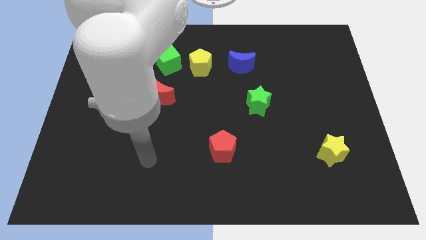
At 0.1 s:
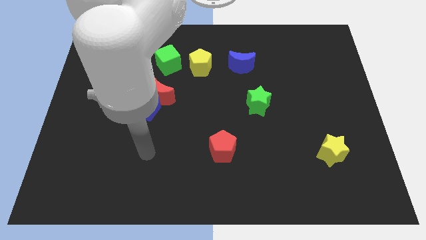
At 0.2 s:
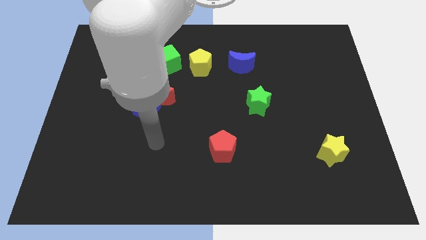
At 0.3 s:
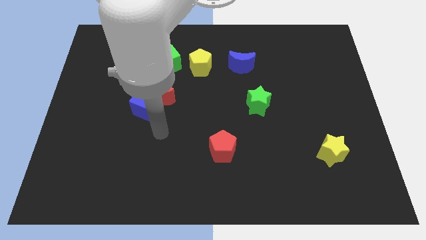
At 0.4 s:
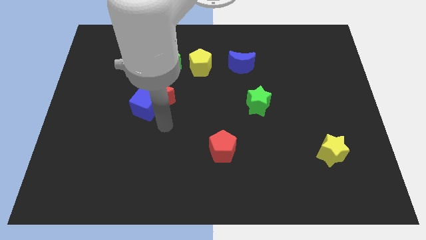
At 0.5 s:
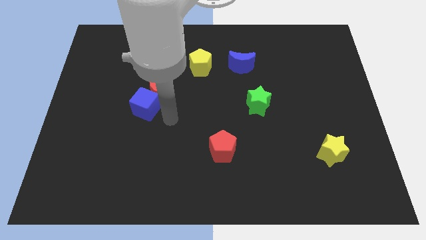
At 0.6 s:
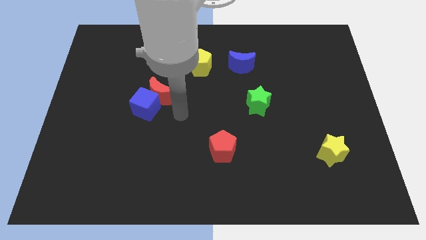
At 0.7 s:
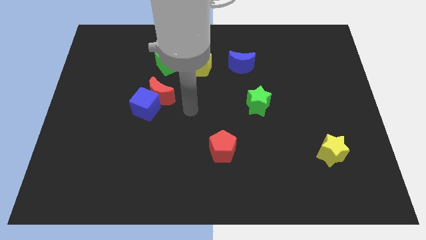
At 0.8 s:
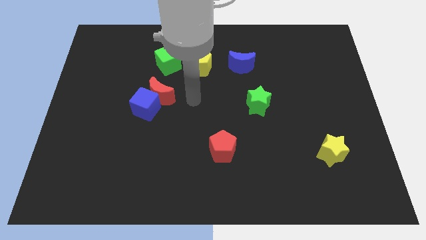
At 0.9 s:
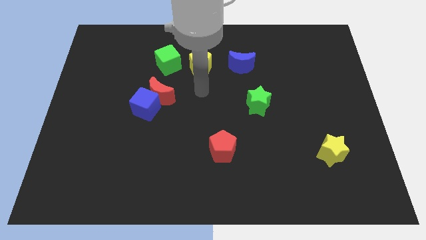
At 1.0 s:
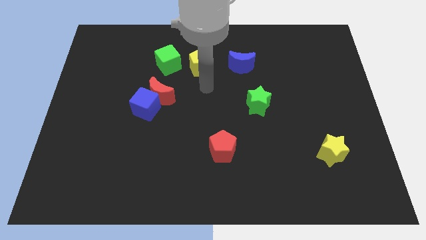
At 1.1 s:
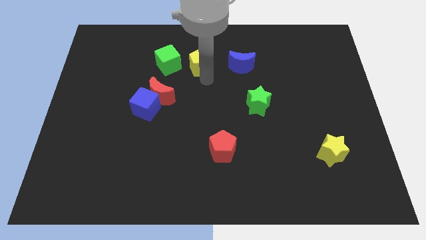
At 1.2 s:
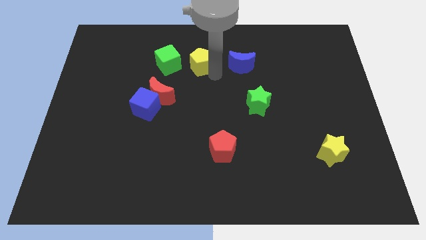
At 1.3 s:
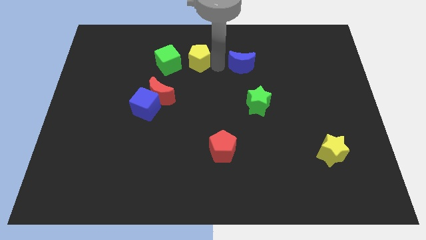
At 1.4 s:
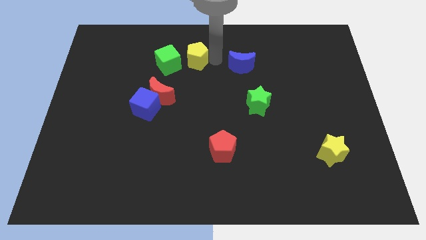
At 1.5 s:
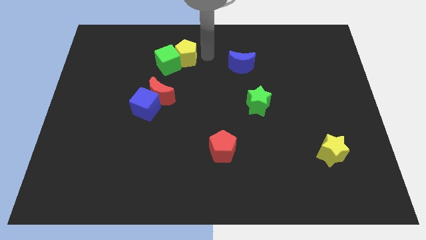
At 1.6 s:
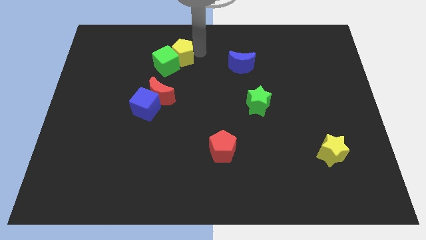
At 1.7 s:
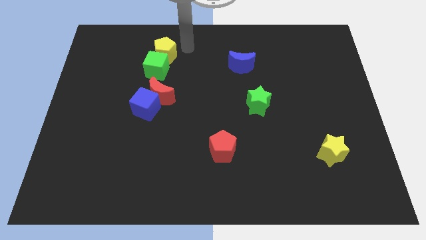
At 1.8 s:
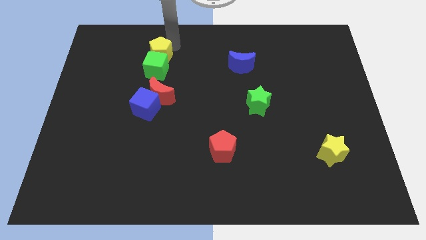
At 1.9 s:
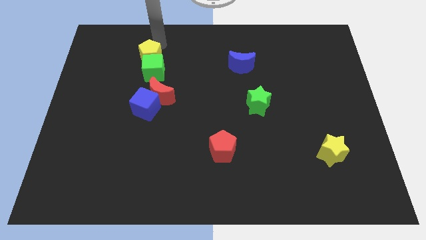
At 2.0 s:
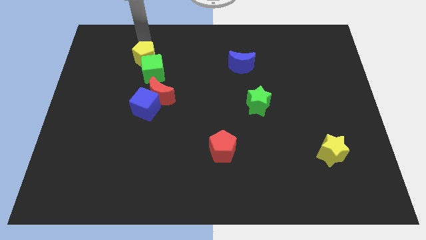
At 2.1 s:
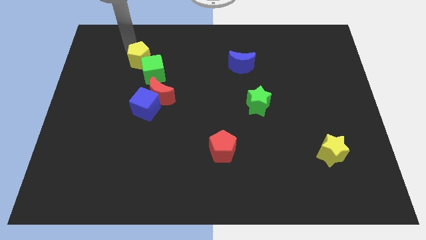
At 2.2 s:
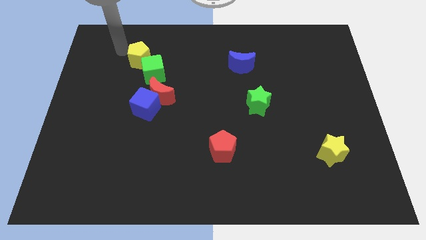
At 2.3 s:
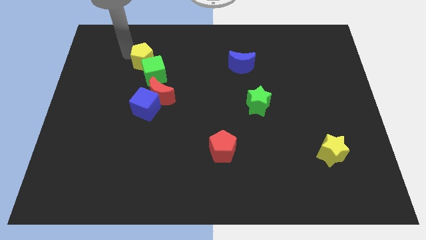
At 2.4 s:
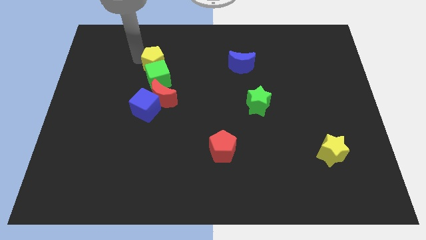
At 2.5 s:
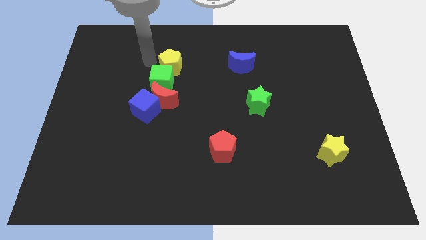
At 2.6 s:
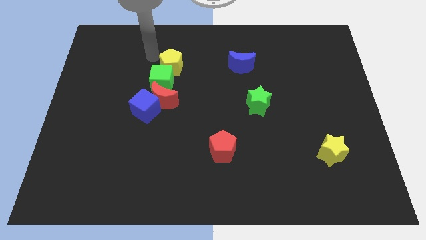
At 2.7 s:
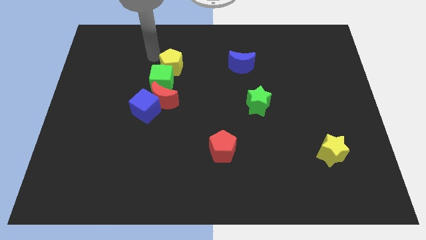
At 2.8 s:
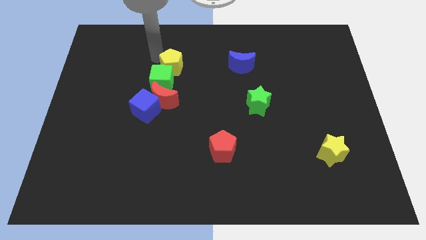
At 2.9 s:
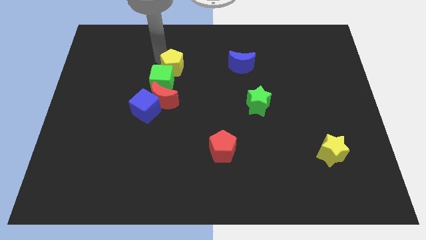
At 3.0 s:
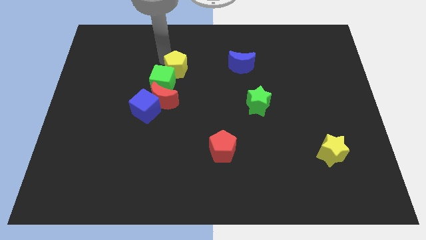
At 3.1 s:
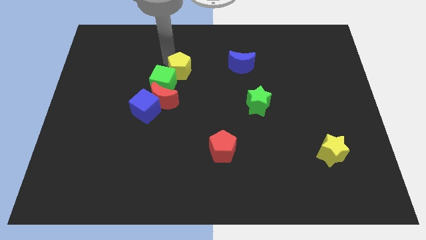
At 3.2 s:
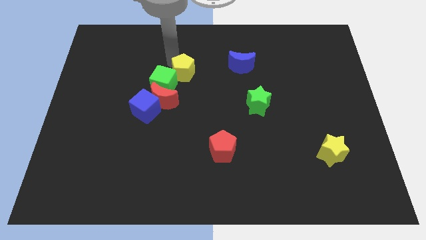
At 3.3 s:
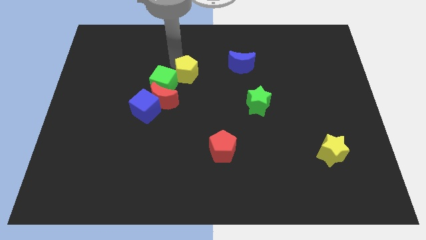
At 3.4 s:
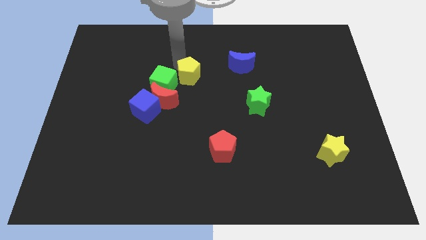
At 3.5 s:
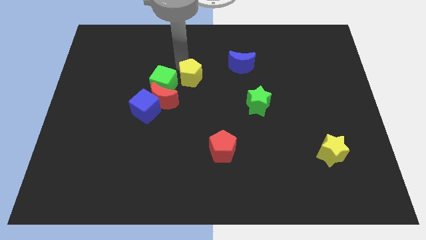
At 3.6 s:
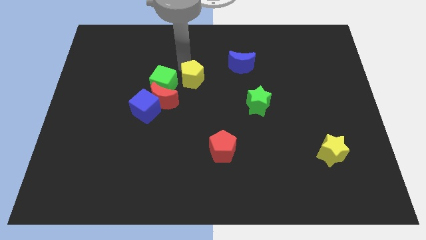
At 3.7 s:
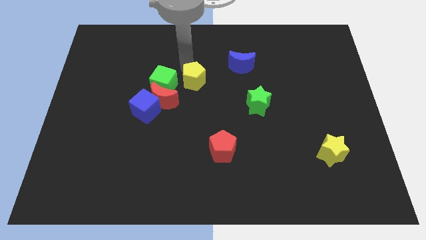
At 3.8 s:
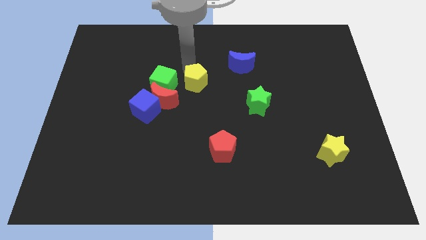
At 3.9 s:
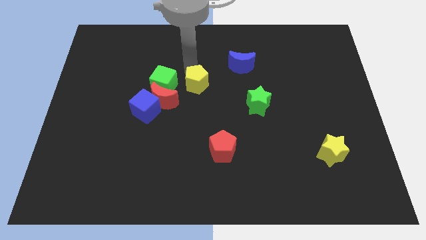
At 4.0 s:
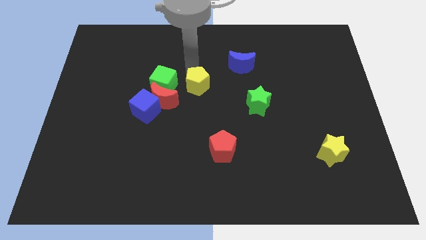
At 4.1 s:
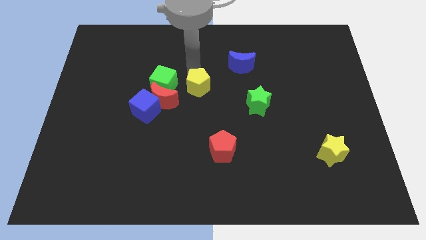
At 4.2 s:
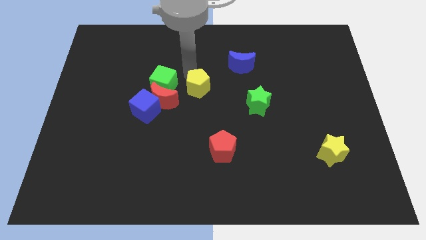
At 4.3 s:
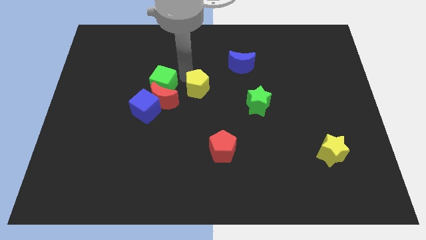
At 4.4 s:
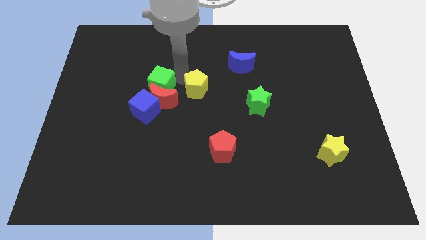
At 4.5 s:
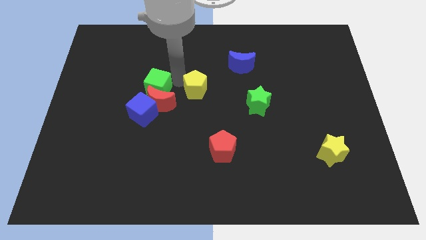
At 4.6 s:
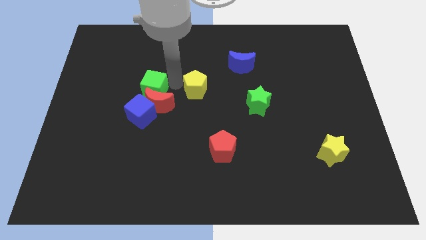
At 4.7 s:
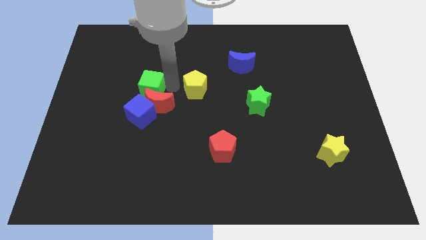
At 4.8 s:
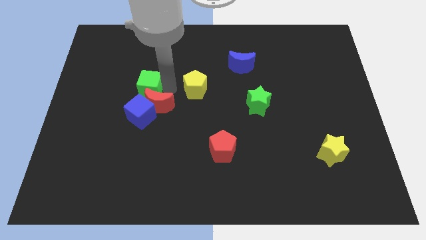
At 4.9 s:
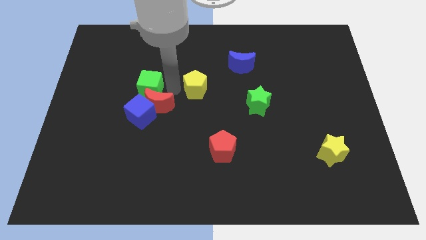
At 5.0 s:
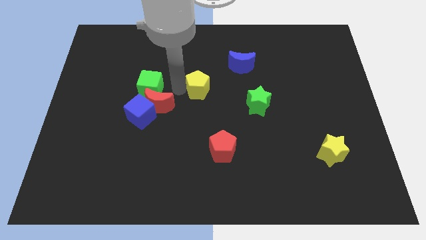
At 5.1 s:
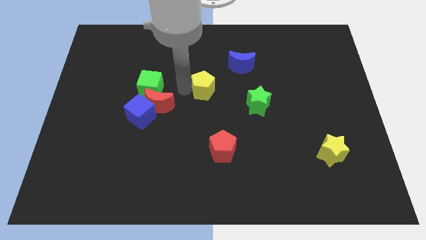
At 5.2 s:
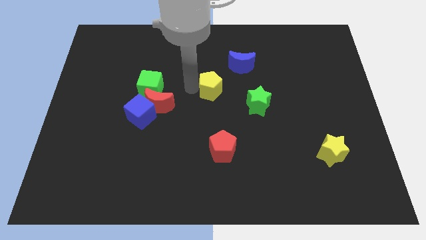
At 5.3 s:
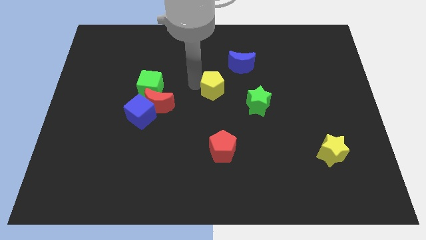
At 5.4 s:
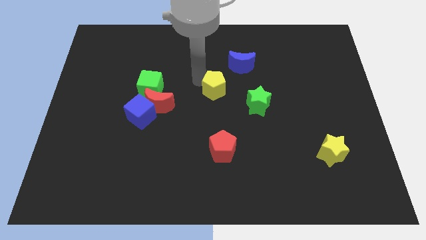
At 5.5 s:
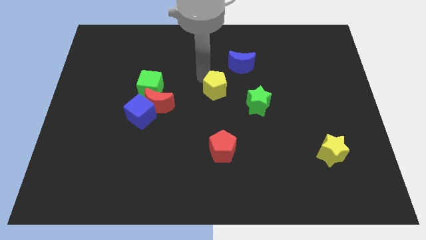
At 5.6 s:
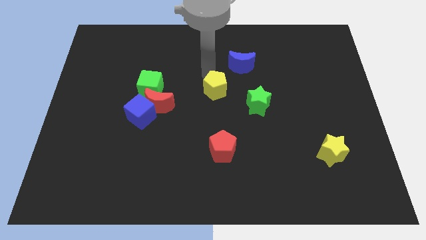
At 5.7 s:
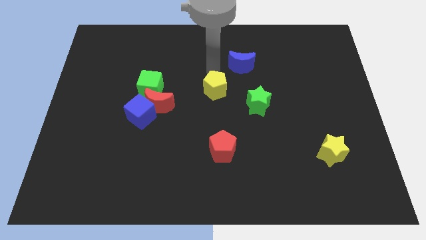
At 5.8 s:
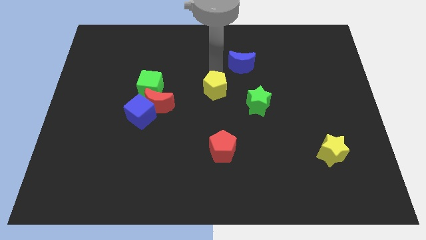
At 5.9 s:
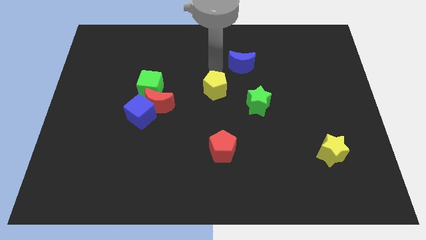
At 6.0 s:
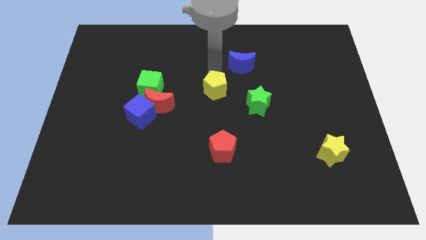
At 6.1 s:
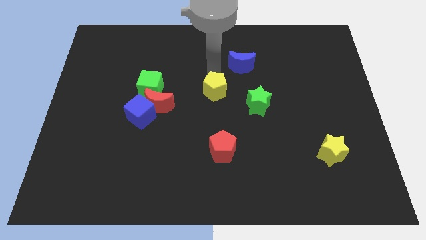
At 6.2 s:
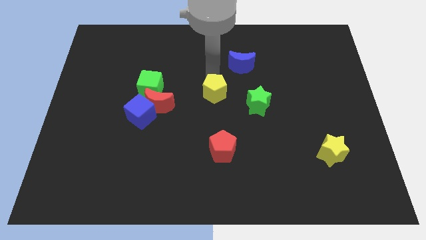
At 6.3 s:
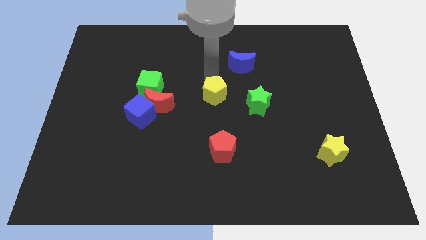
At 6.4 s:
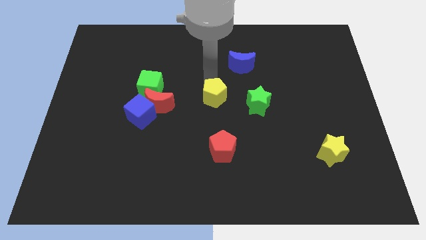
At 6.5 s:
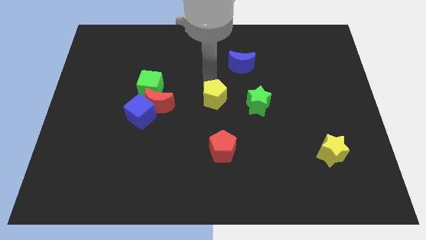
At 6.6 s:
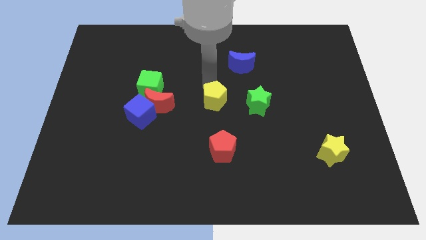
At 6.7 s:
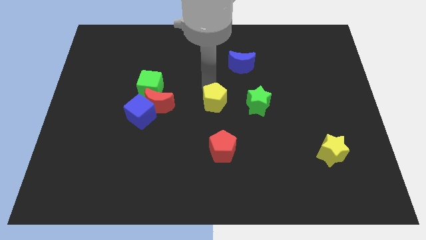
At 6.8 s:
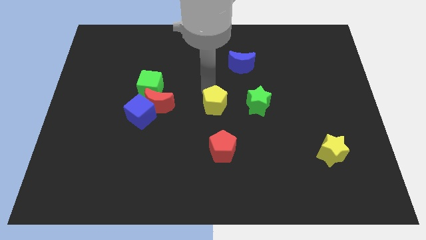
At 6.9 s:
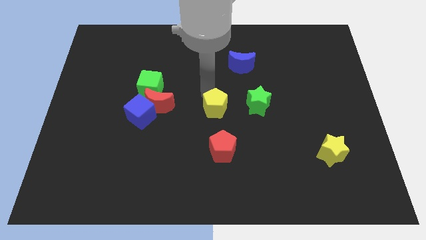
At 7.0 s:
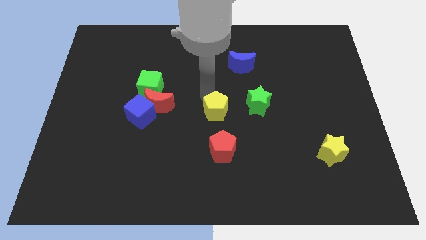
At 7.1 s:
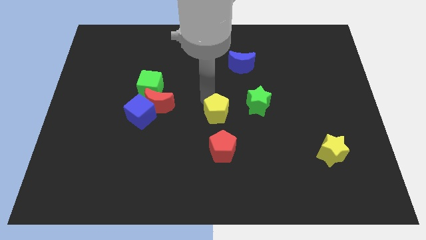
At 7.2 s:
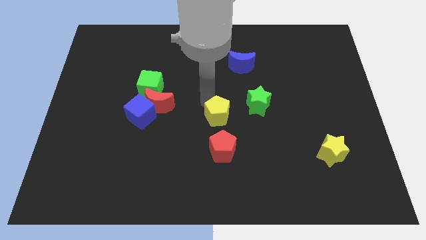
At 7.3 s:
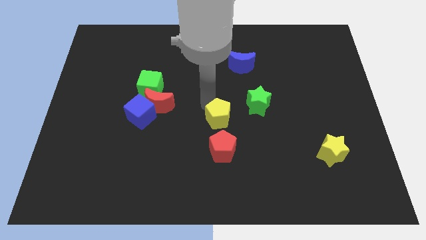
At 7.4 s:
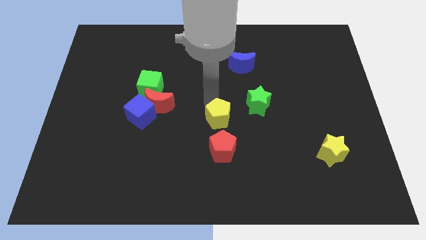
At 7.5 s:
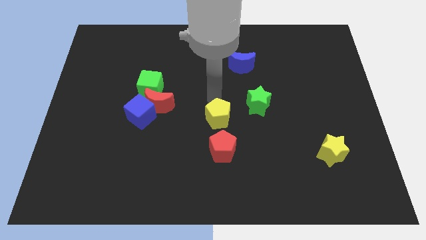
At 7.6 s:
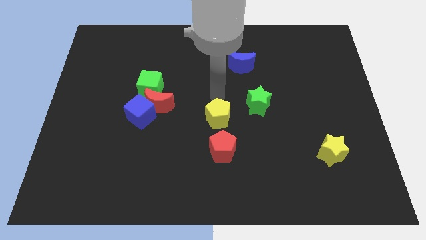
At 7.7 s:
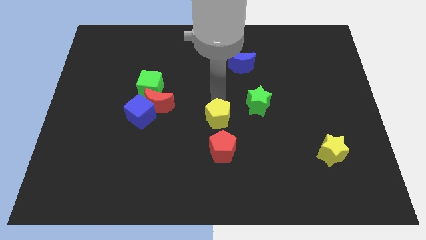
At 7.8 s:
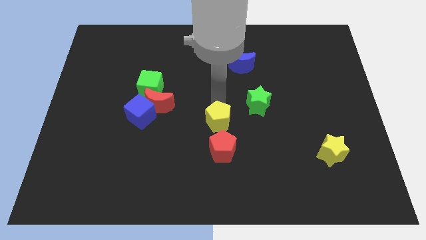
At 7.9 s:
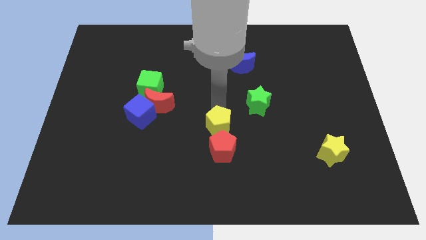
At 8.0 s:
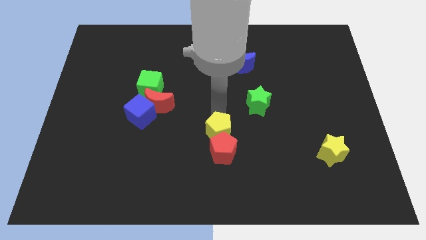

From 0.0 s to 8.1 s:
move the yellow pentagon next to the red pentagon
